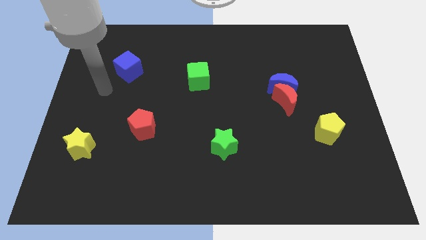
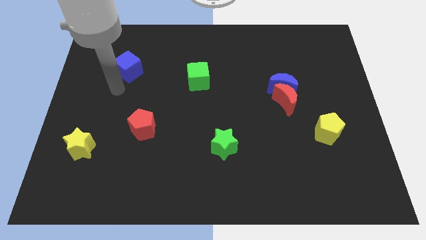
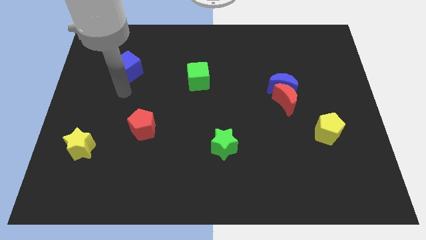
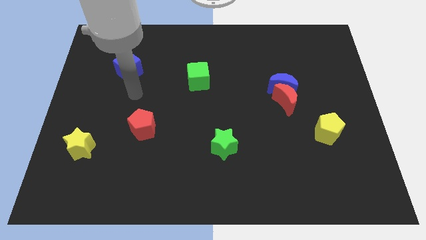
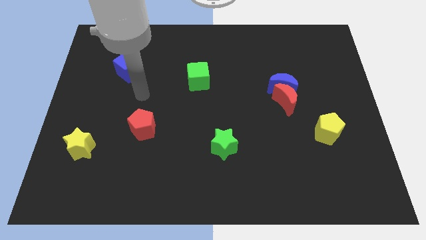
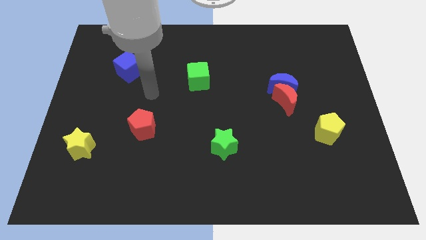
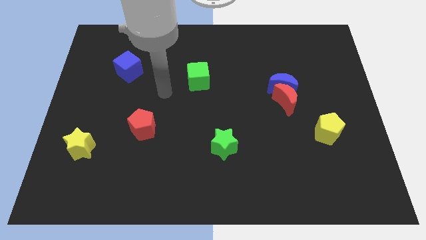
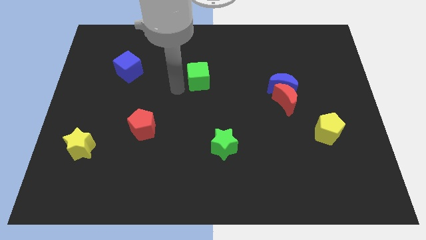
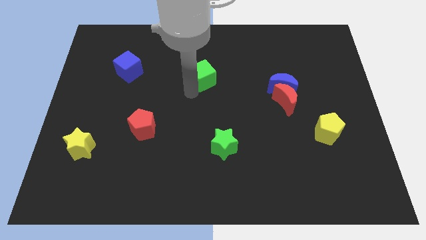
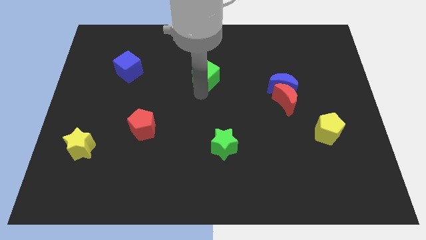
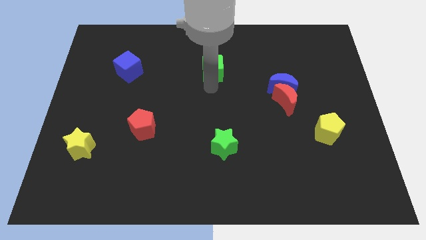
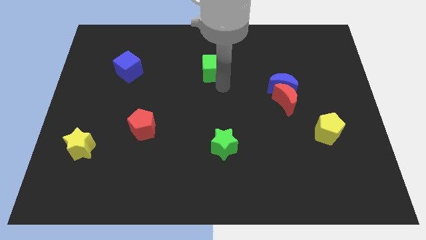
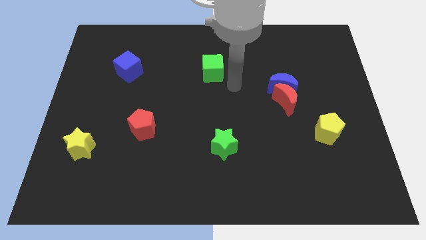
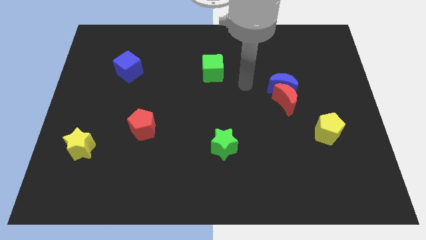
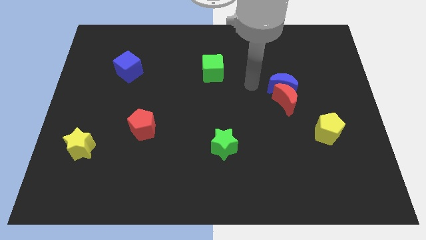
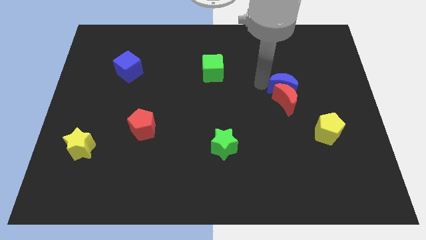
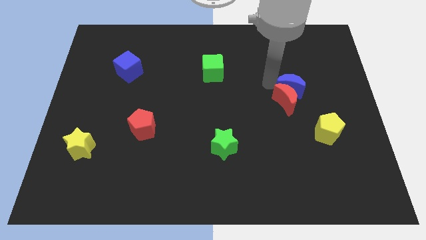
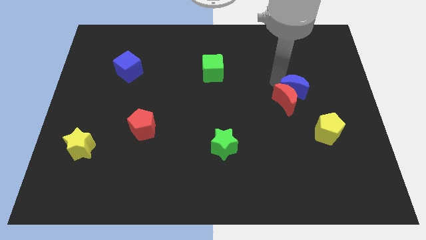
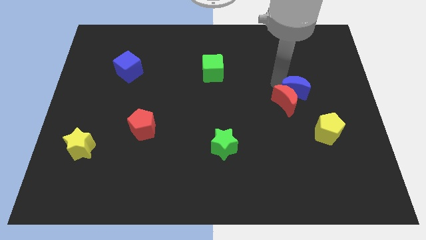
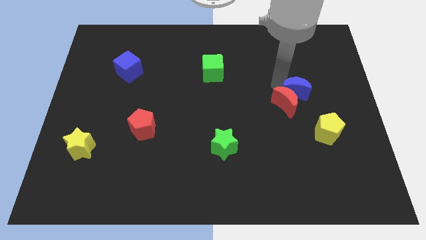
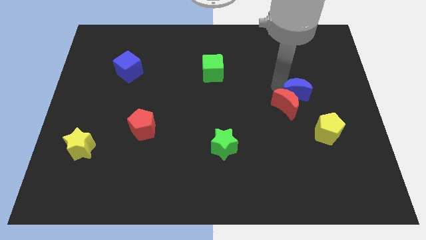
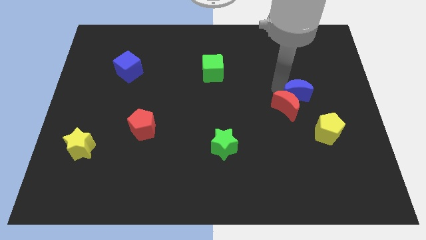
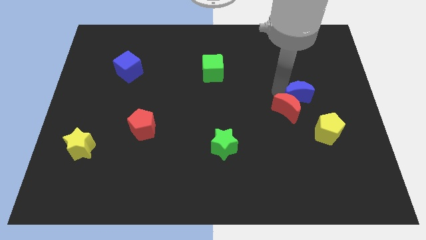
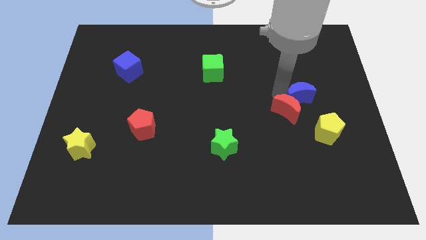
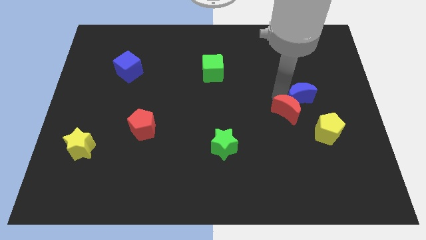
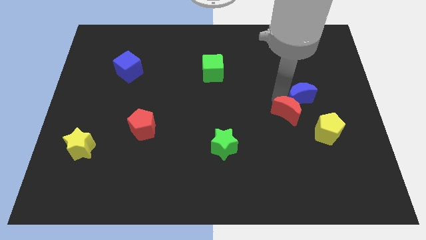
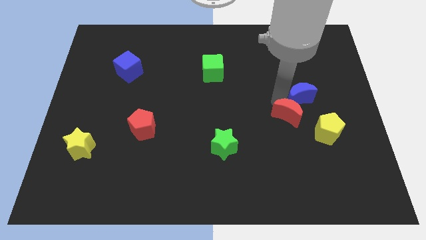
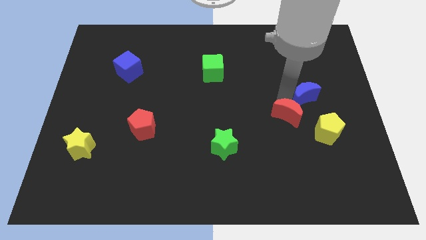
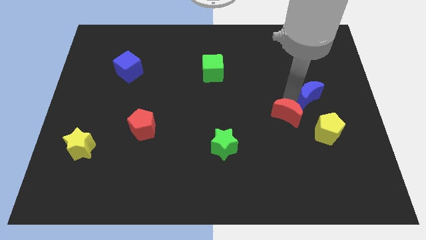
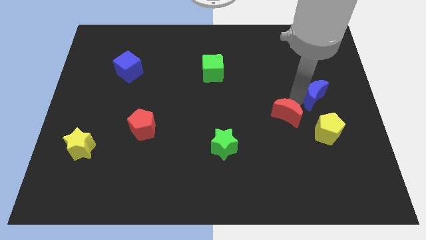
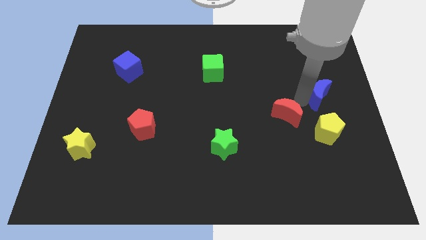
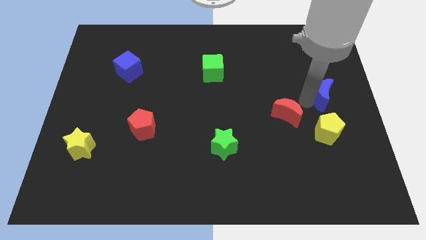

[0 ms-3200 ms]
pull the red moon apart from the blue moon

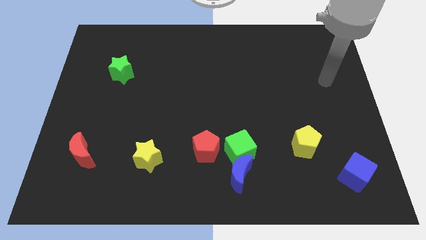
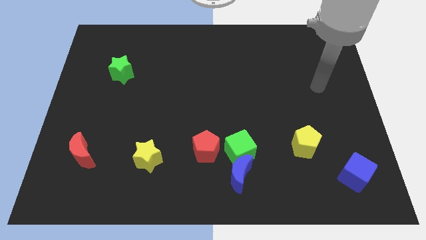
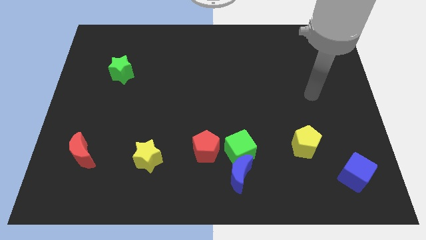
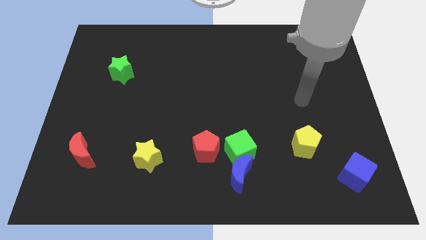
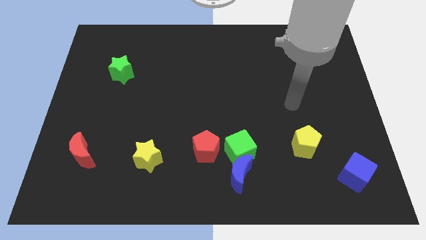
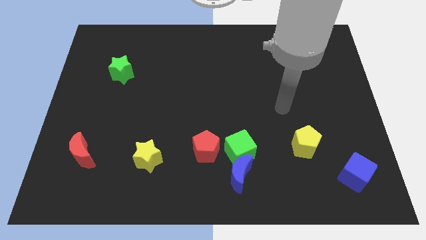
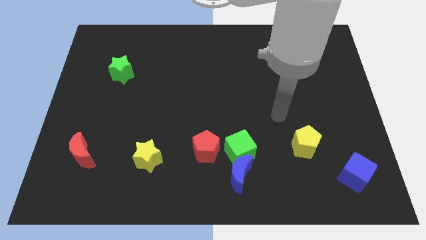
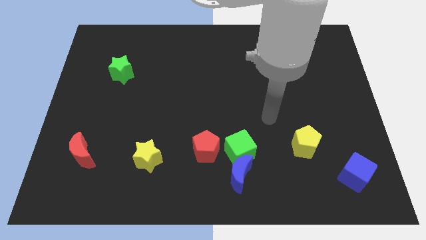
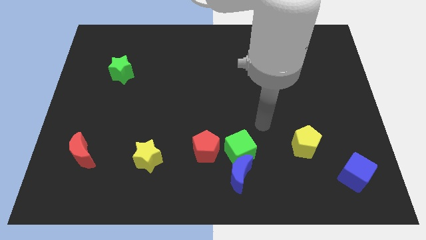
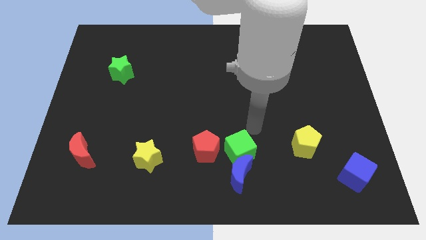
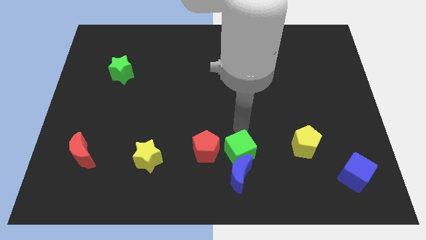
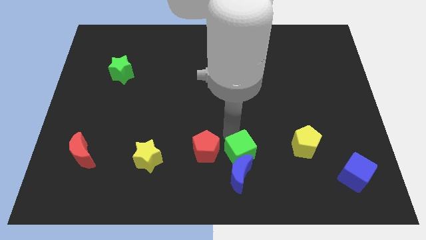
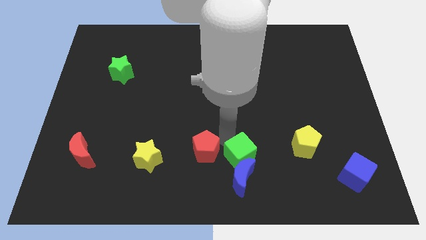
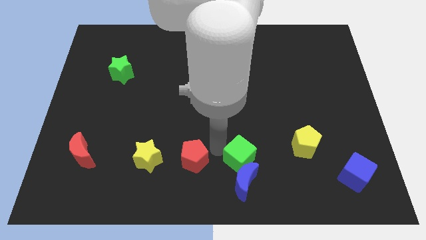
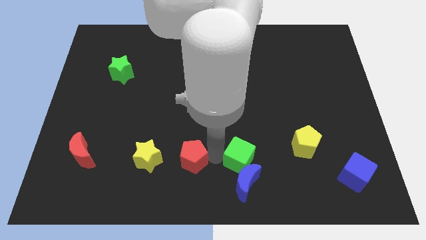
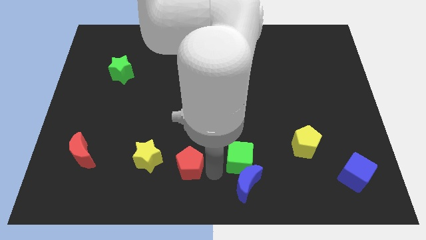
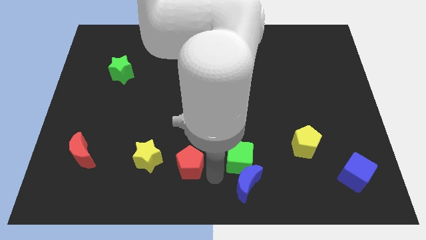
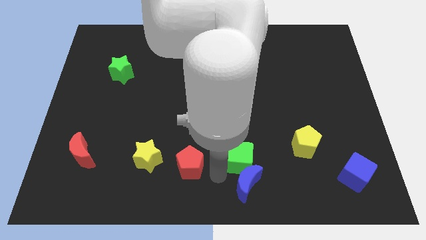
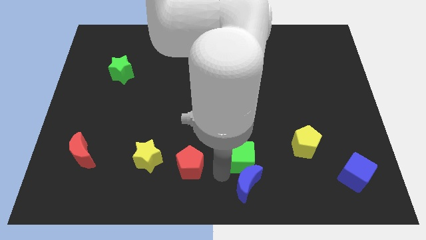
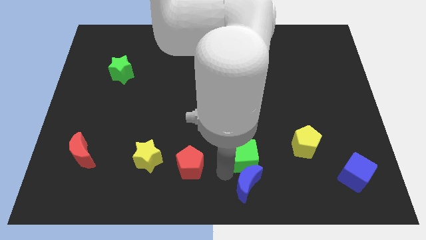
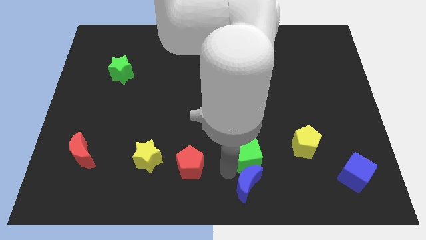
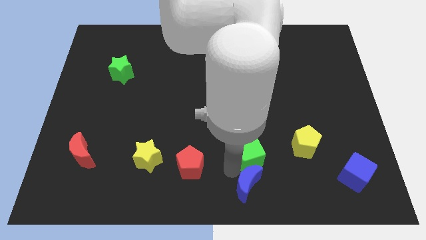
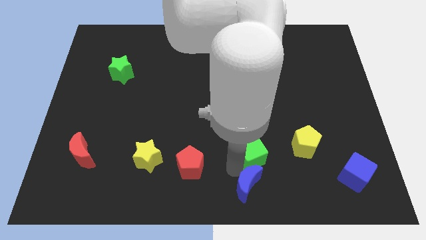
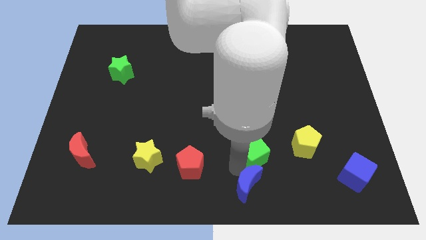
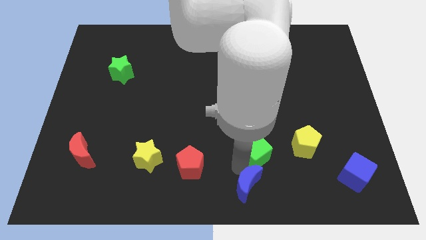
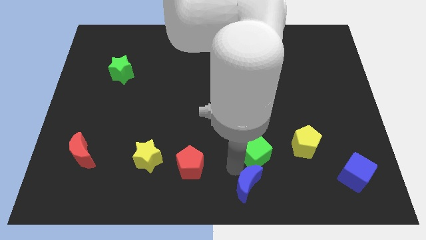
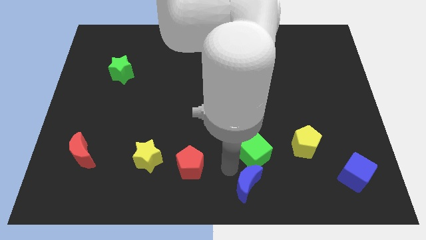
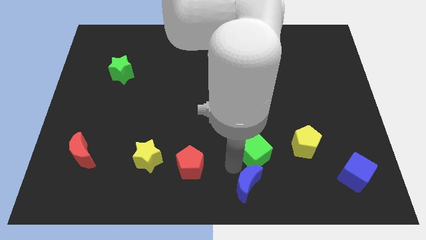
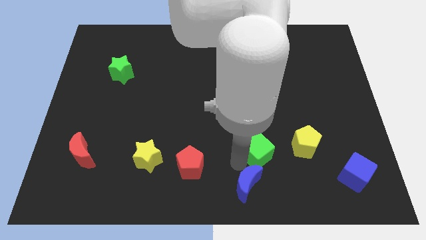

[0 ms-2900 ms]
separate the green cube from the blue moon and red pentagon

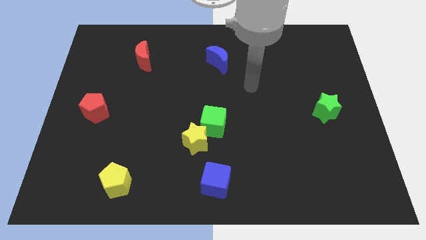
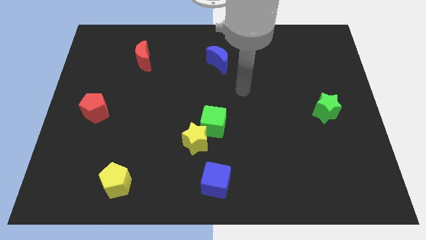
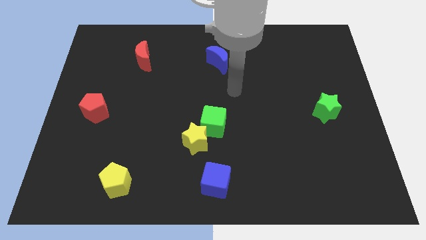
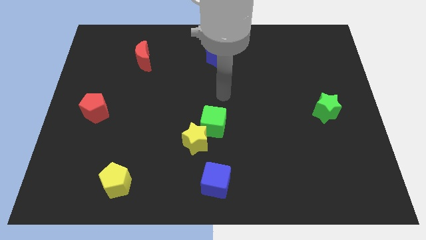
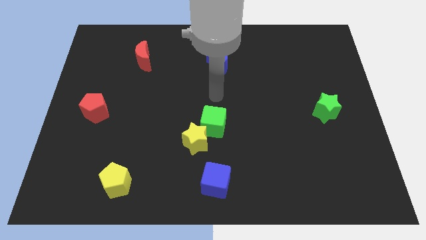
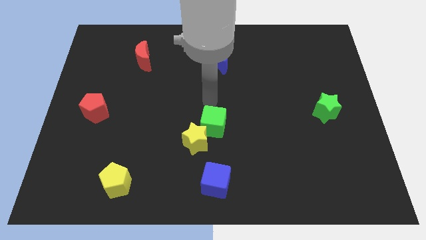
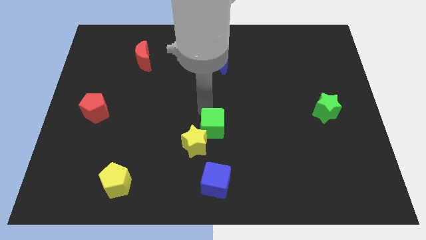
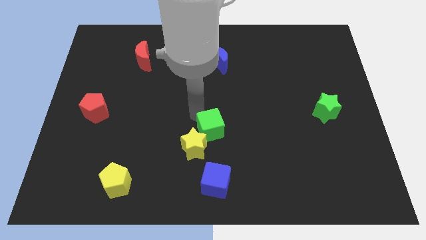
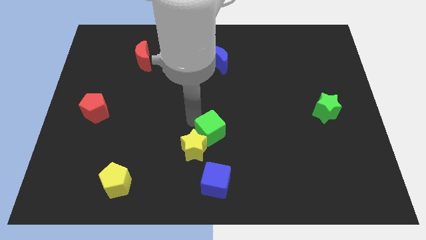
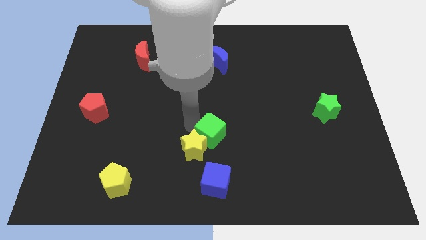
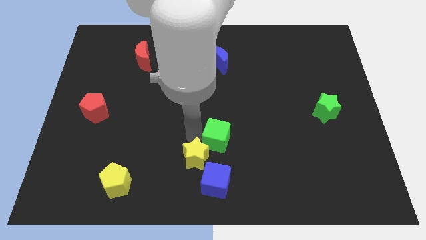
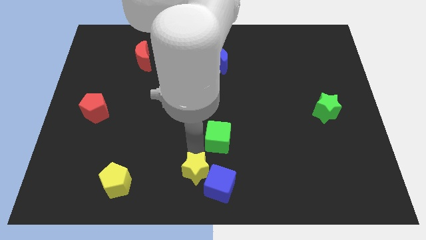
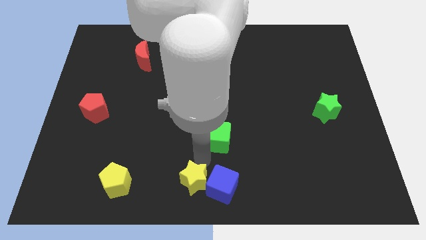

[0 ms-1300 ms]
move the green cube away from the yellow star

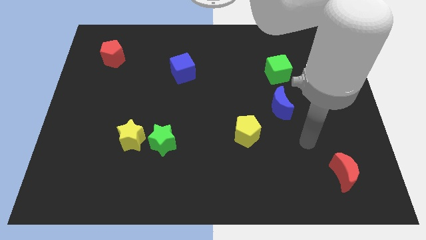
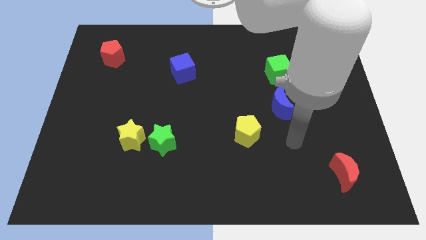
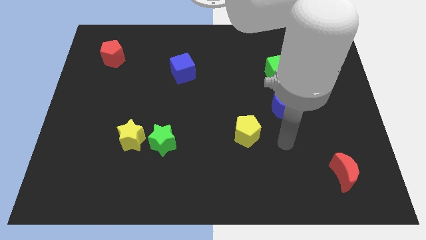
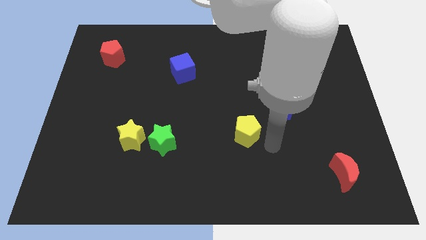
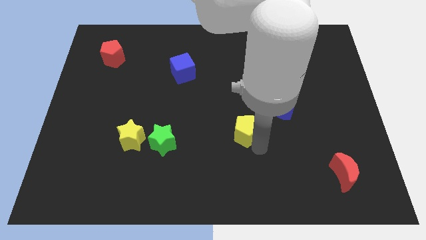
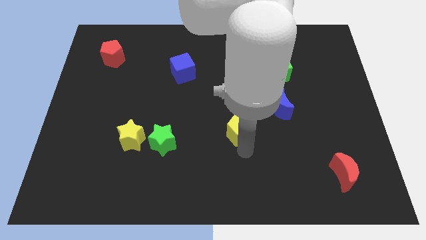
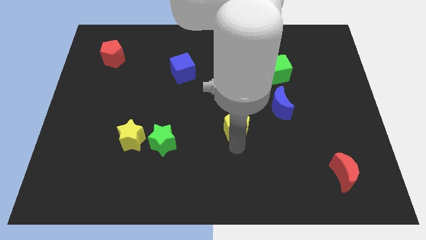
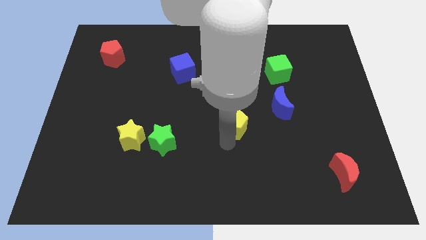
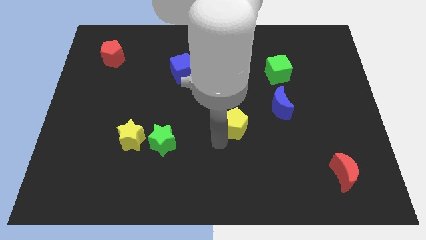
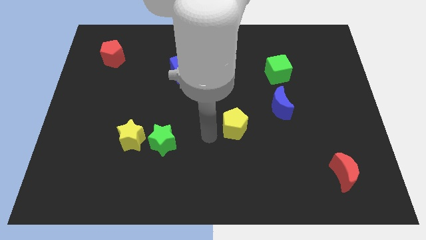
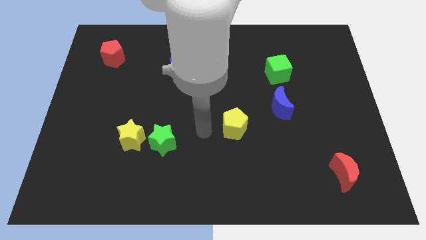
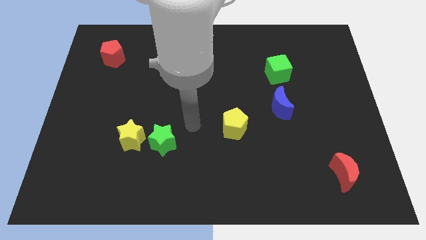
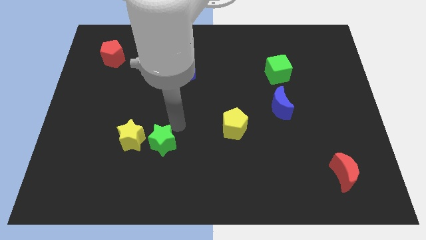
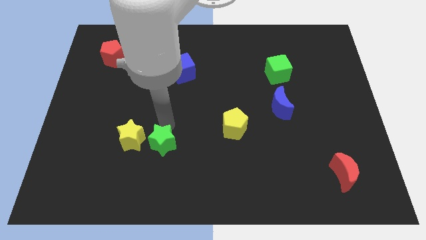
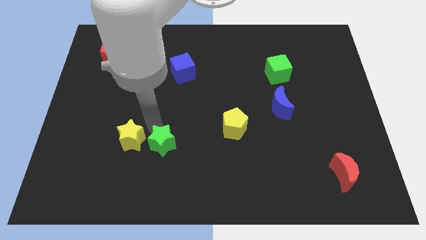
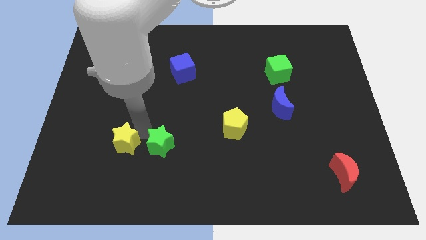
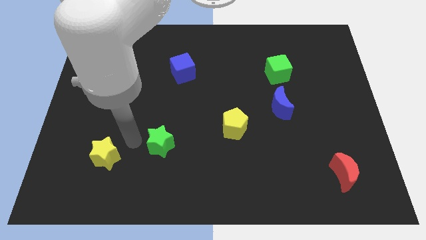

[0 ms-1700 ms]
move the green star away from the yellow star

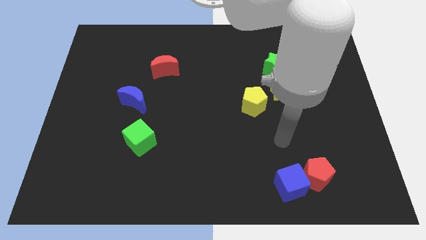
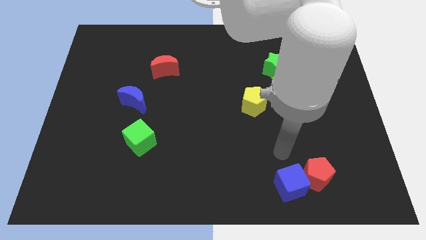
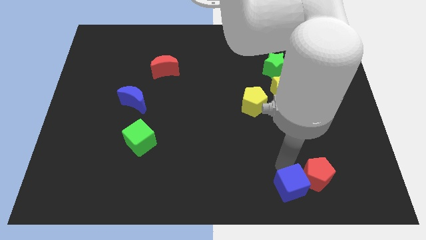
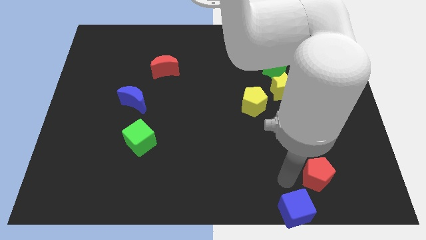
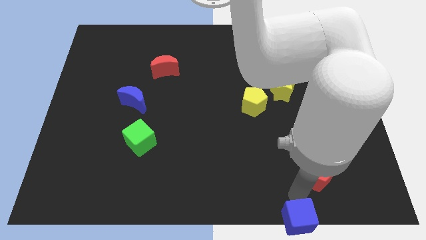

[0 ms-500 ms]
pull the red pentagon apart from the blue cube
